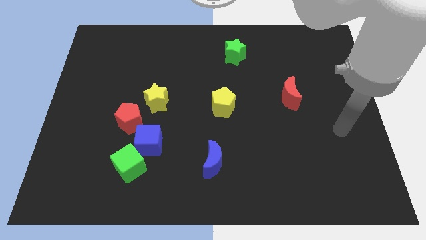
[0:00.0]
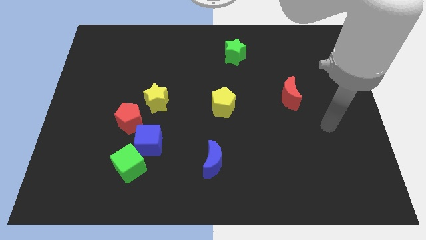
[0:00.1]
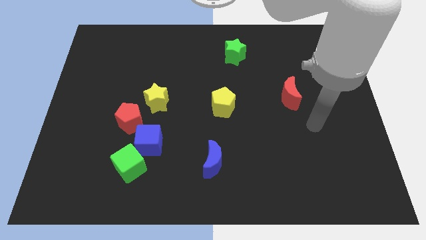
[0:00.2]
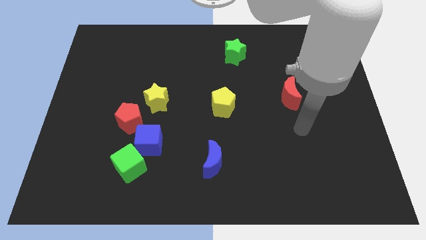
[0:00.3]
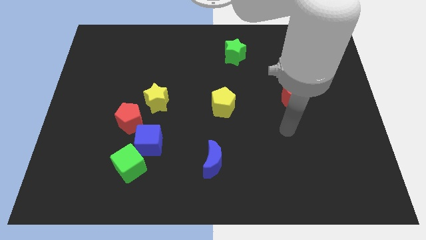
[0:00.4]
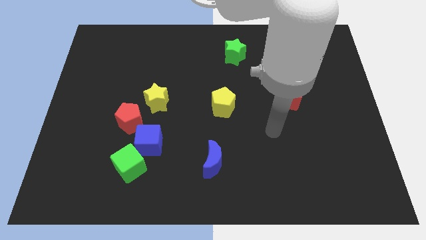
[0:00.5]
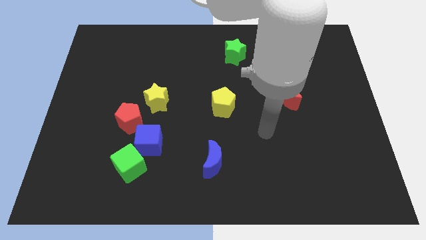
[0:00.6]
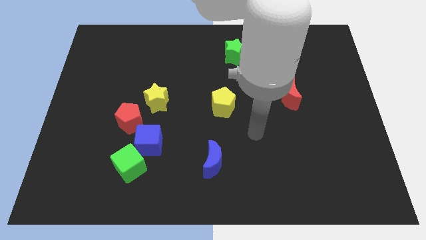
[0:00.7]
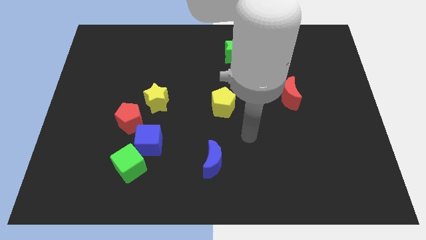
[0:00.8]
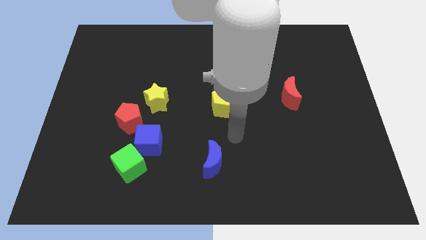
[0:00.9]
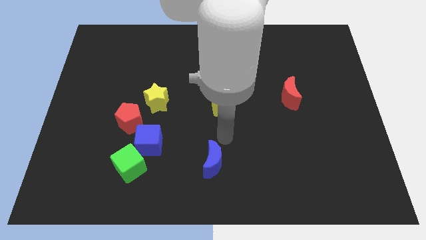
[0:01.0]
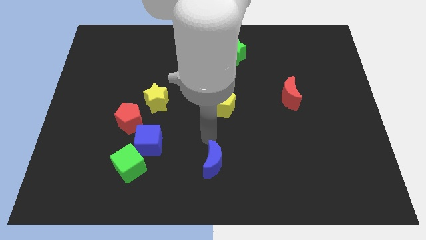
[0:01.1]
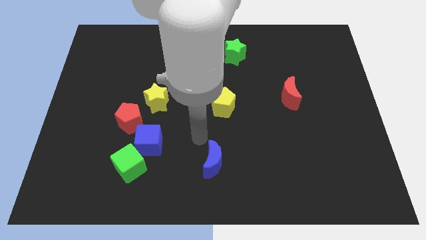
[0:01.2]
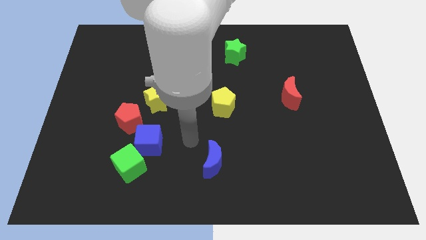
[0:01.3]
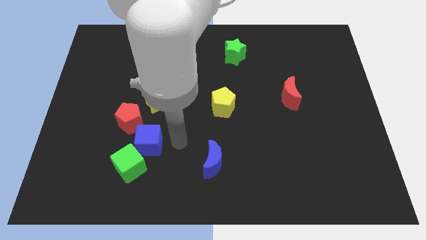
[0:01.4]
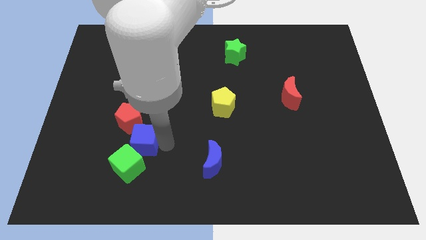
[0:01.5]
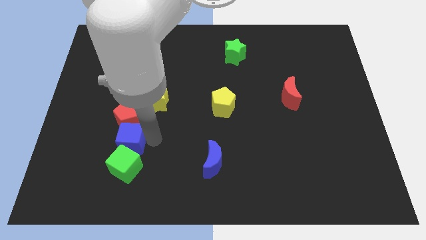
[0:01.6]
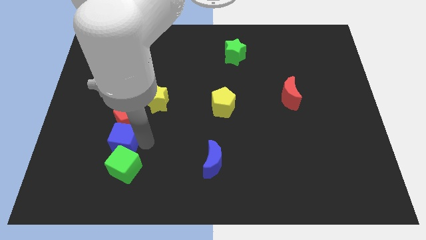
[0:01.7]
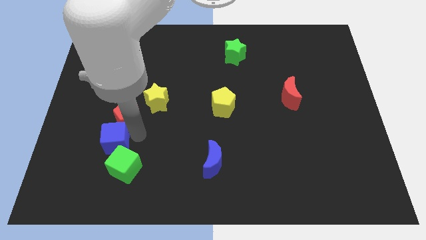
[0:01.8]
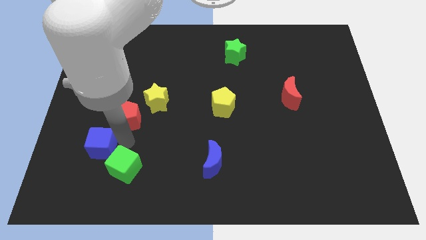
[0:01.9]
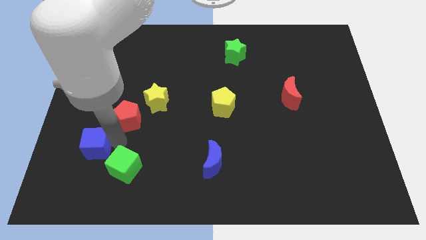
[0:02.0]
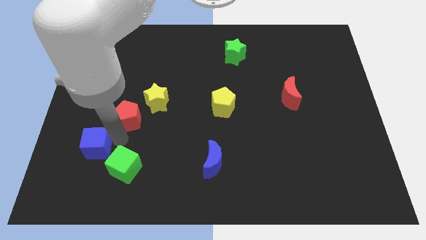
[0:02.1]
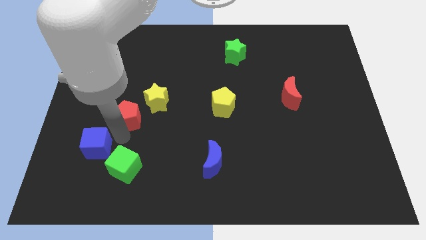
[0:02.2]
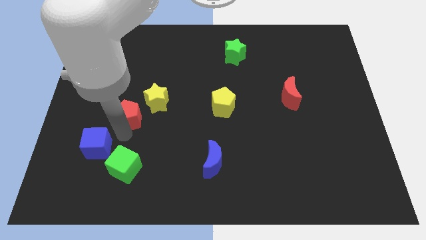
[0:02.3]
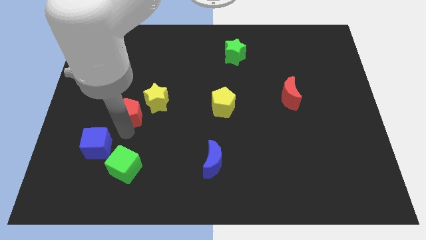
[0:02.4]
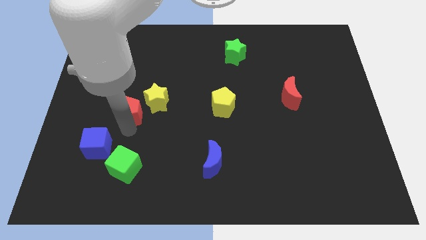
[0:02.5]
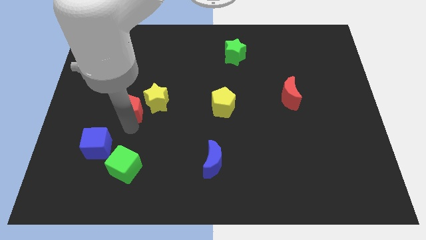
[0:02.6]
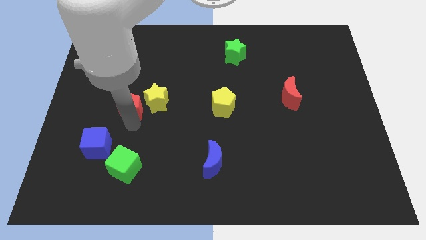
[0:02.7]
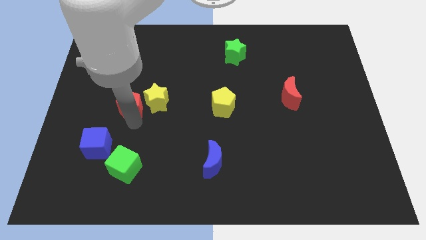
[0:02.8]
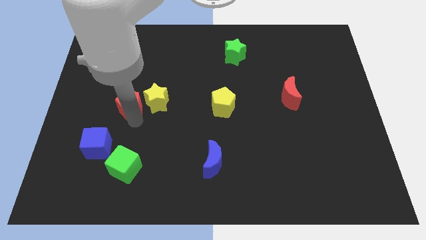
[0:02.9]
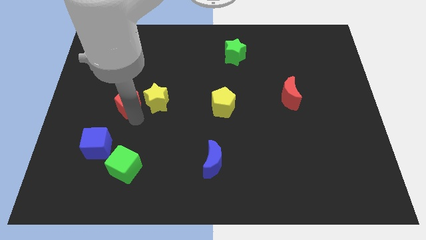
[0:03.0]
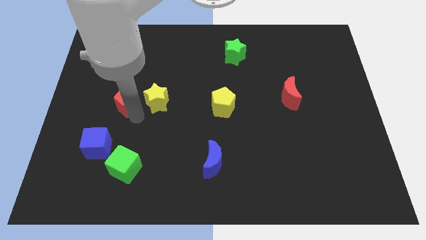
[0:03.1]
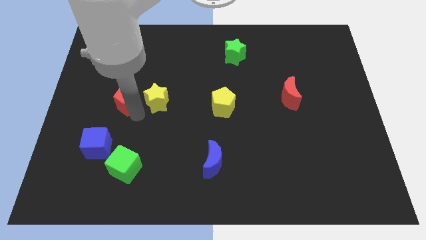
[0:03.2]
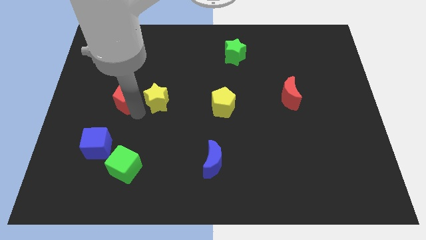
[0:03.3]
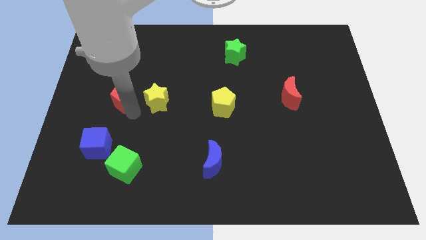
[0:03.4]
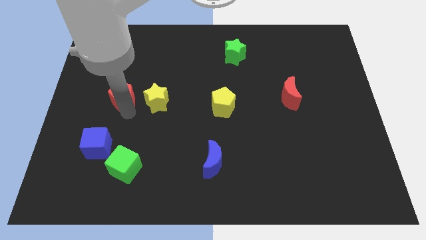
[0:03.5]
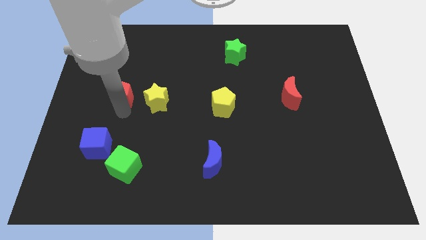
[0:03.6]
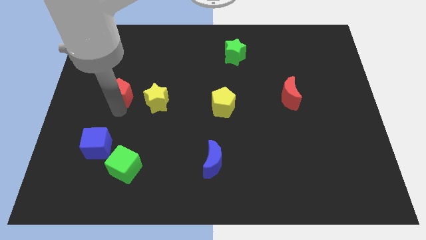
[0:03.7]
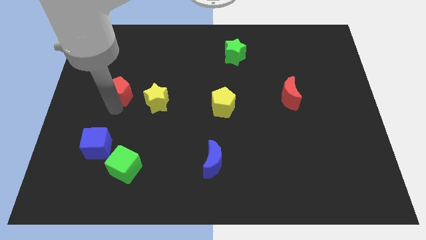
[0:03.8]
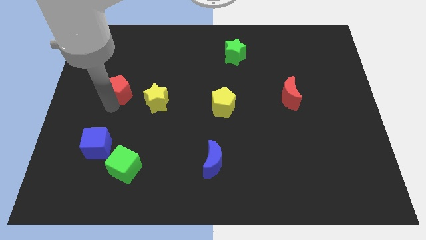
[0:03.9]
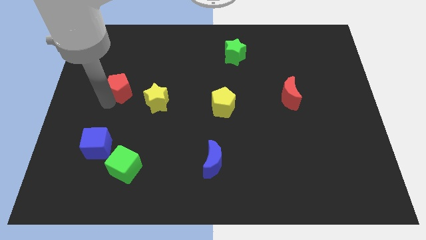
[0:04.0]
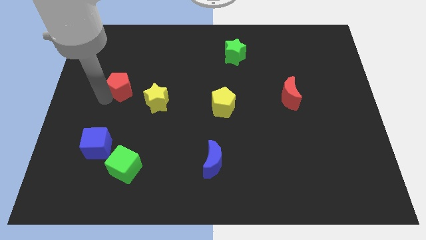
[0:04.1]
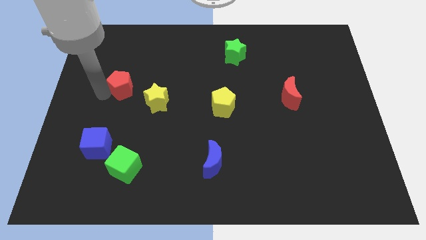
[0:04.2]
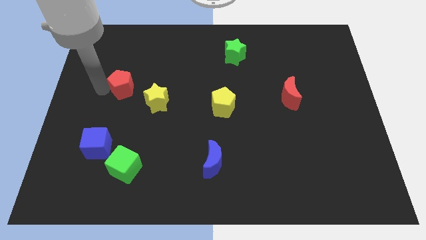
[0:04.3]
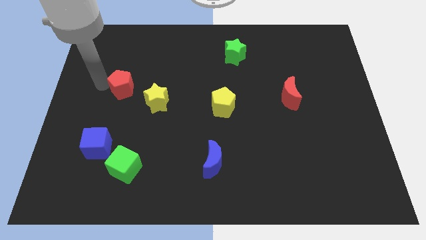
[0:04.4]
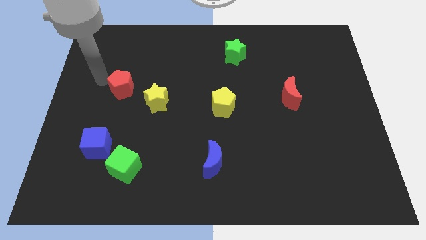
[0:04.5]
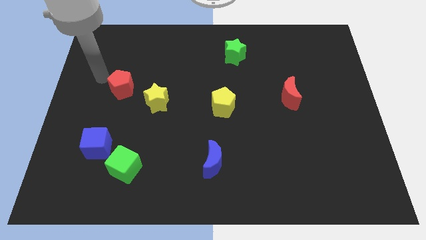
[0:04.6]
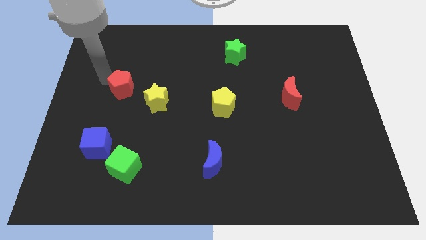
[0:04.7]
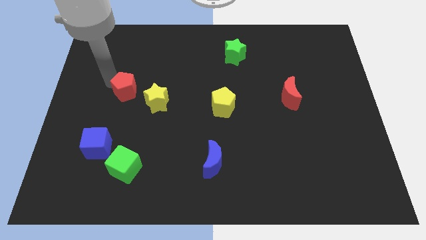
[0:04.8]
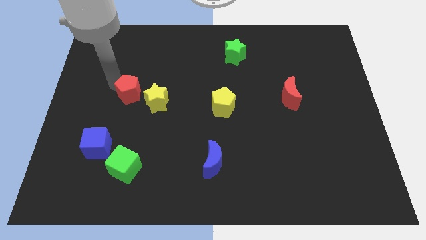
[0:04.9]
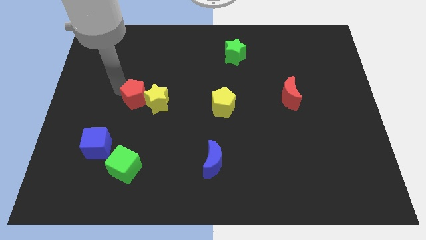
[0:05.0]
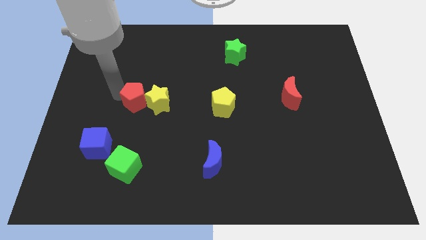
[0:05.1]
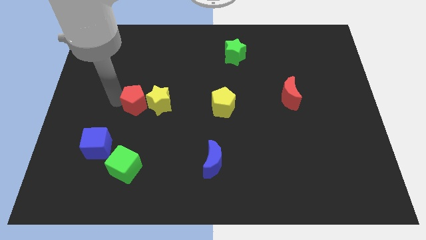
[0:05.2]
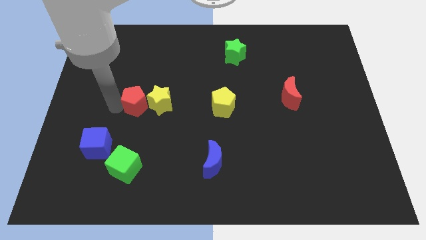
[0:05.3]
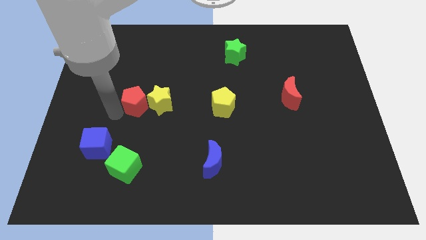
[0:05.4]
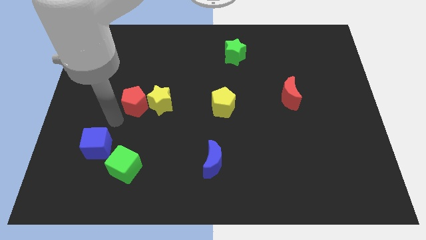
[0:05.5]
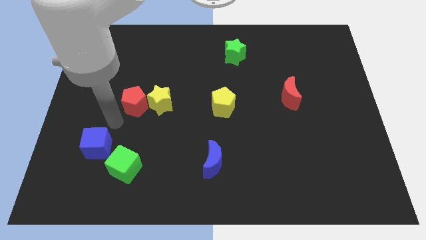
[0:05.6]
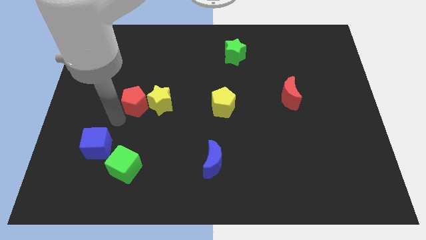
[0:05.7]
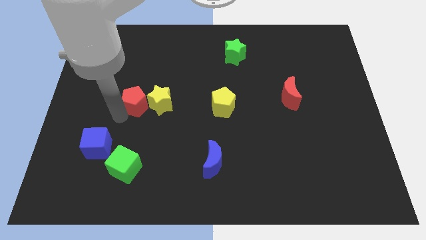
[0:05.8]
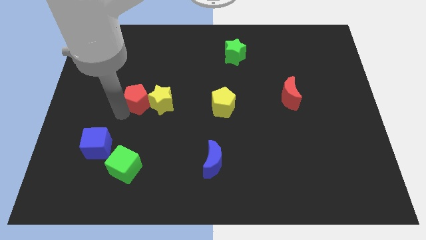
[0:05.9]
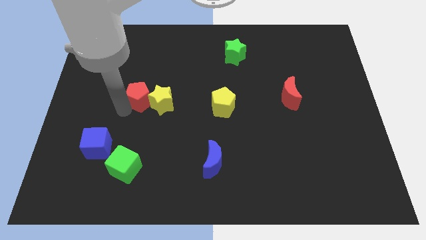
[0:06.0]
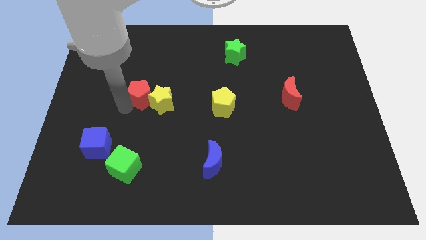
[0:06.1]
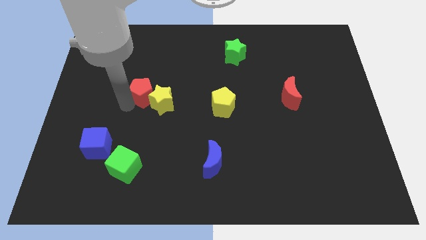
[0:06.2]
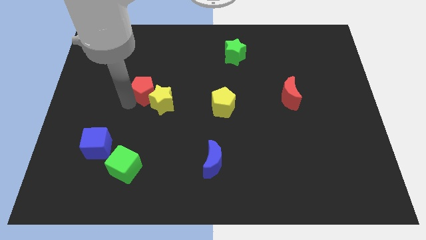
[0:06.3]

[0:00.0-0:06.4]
slide the red pentagon upwards and to the right a bit

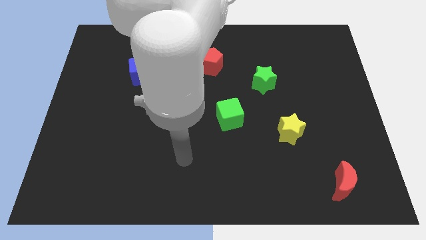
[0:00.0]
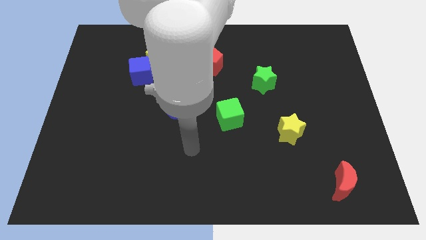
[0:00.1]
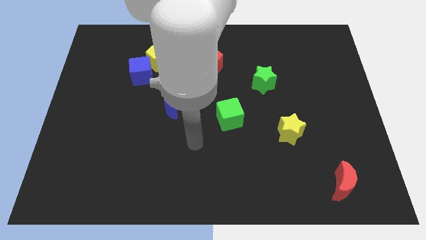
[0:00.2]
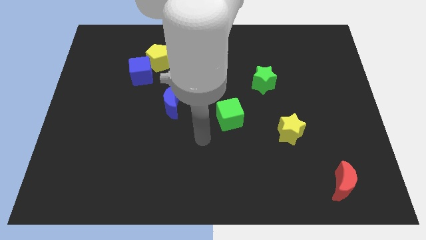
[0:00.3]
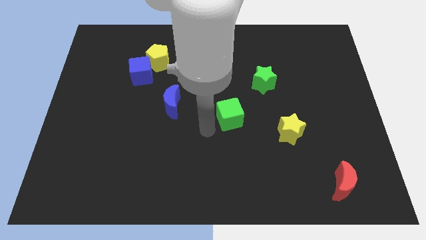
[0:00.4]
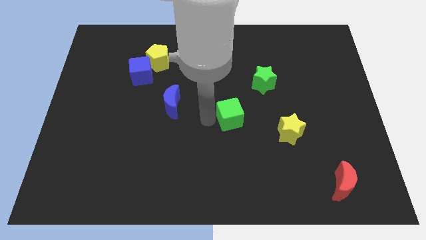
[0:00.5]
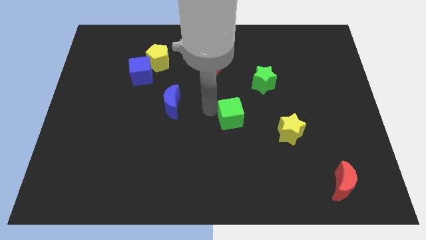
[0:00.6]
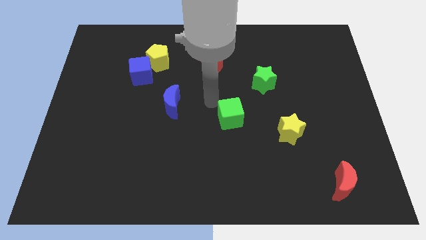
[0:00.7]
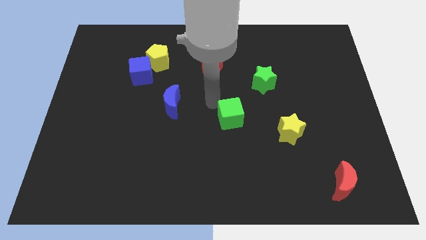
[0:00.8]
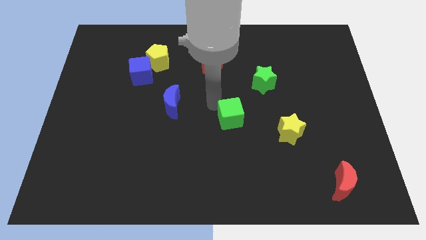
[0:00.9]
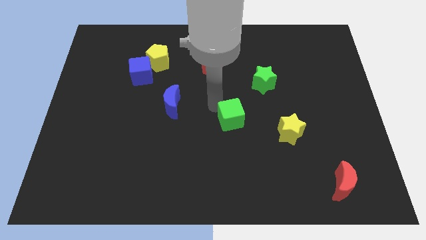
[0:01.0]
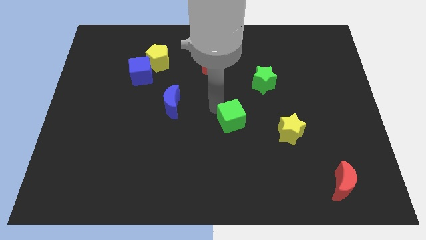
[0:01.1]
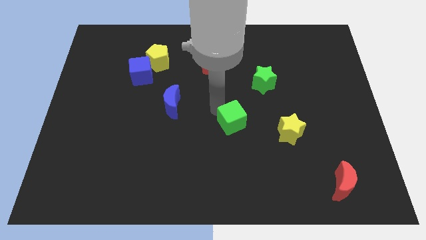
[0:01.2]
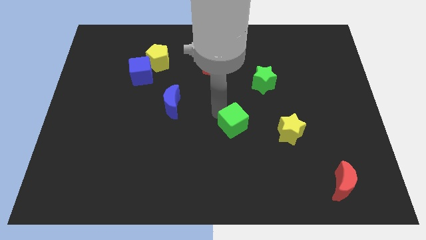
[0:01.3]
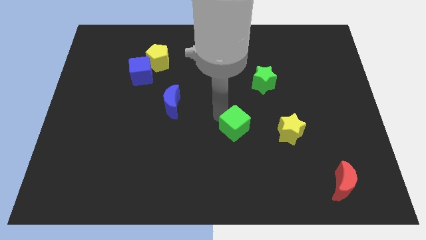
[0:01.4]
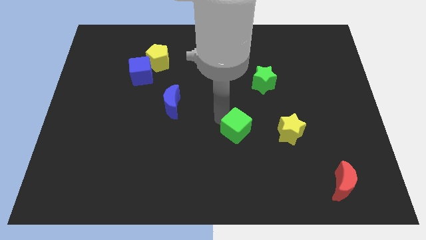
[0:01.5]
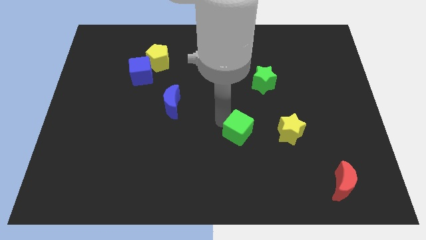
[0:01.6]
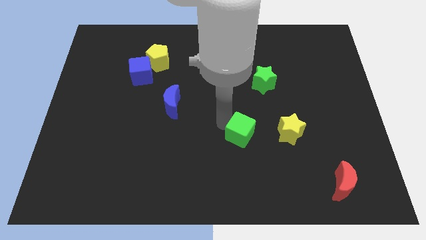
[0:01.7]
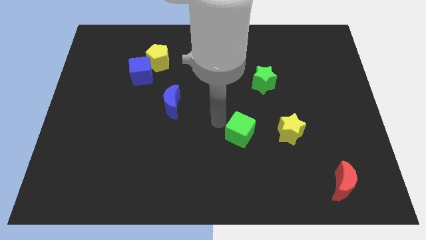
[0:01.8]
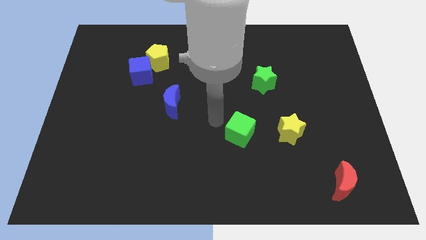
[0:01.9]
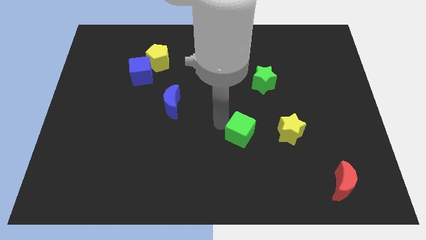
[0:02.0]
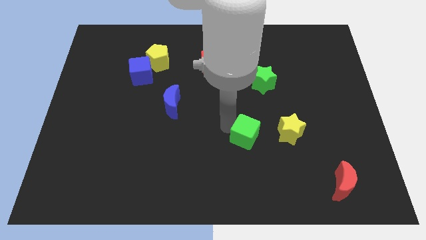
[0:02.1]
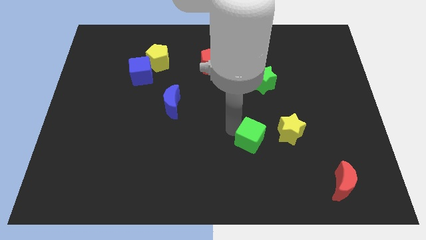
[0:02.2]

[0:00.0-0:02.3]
slightly move the green cube diagonally down and right
